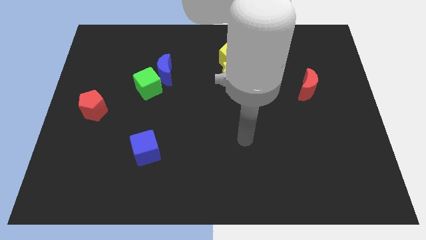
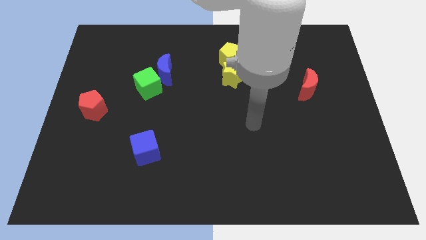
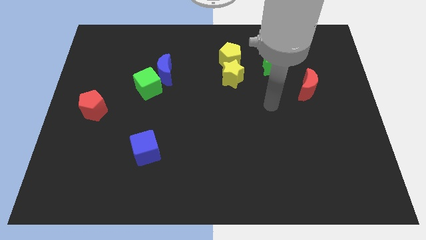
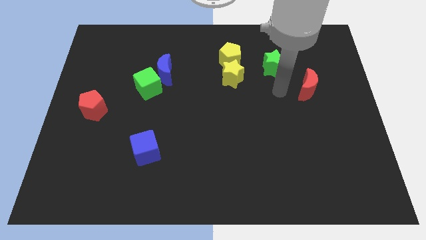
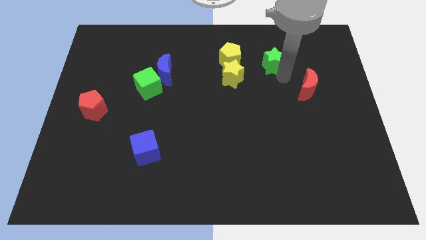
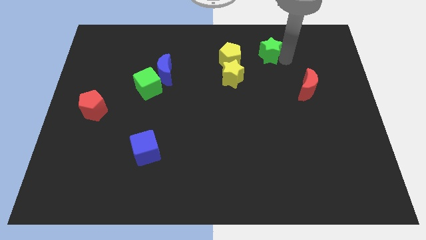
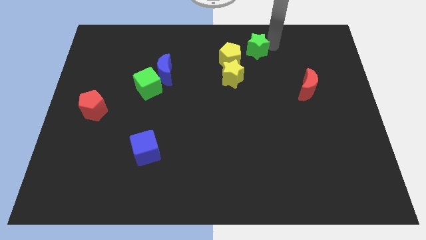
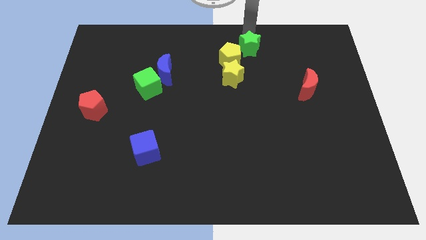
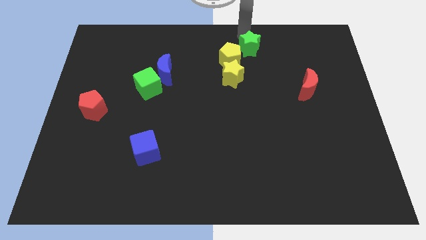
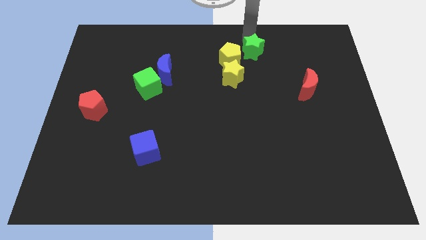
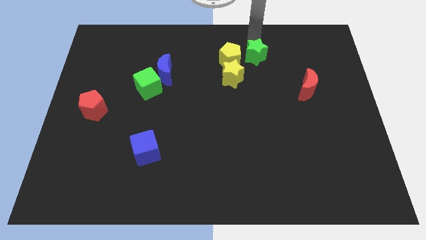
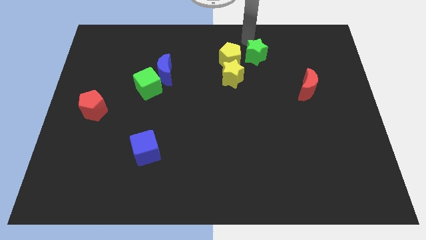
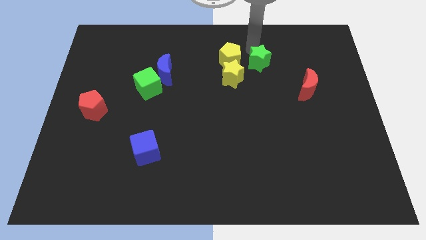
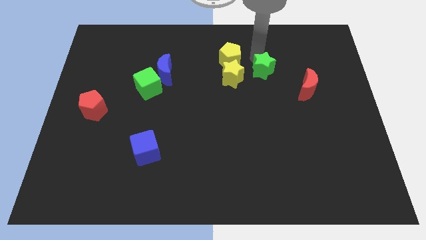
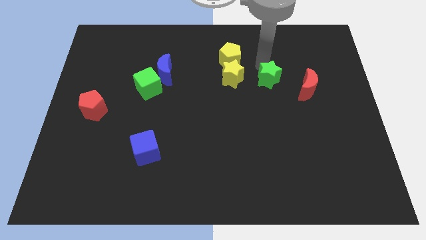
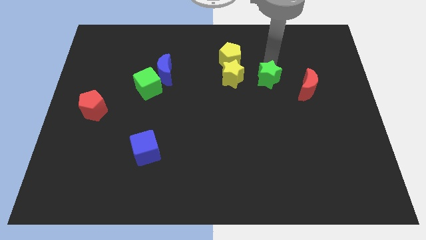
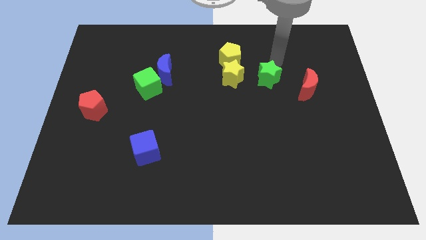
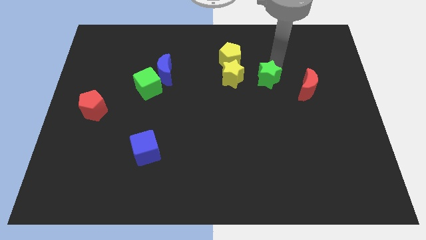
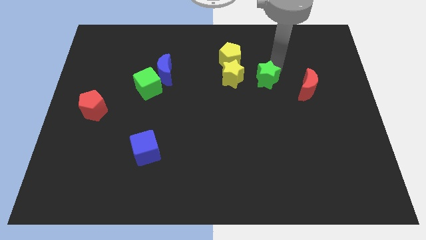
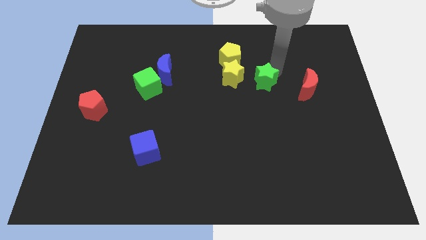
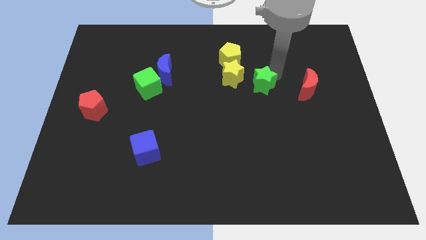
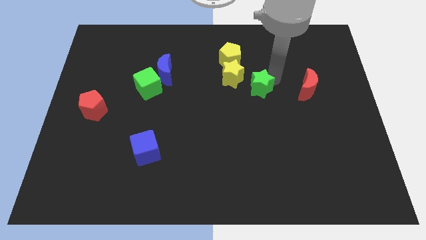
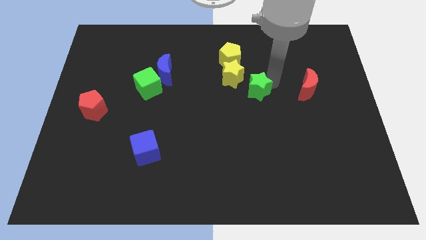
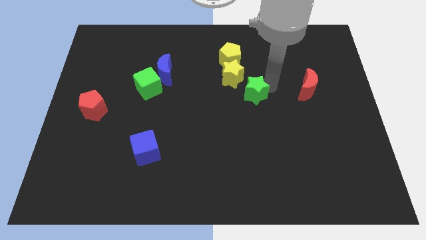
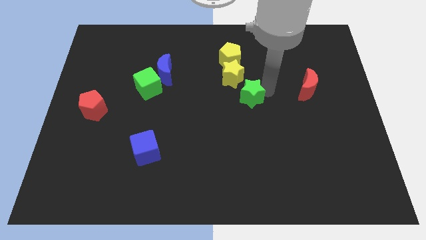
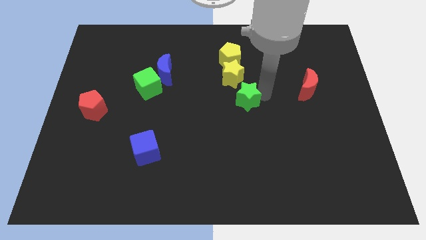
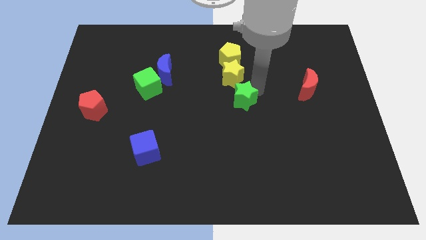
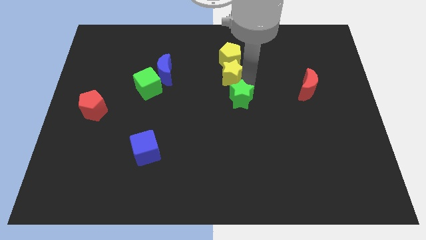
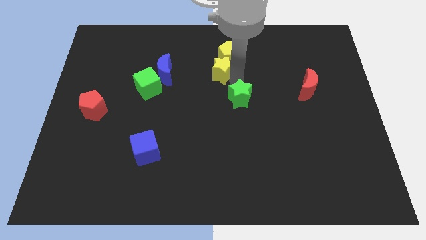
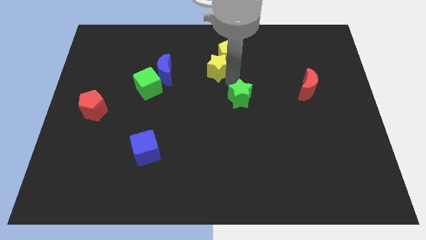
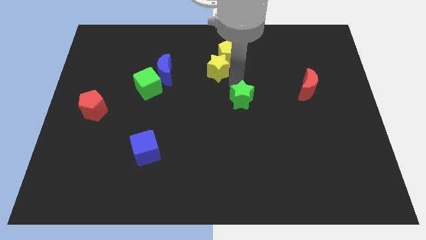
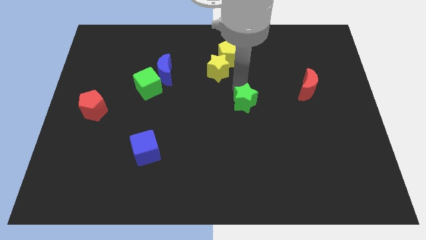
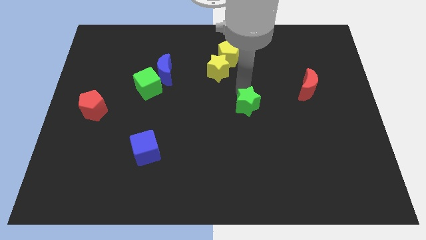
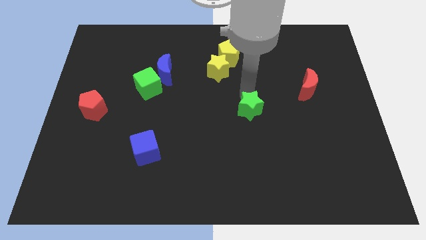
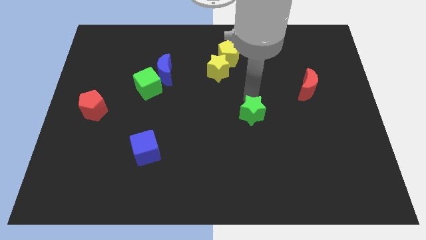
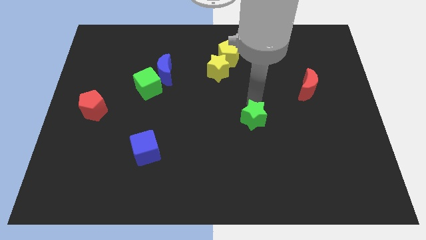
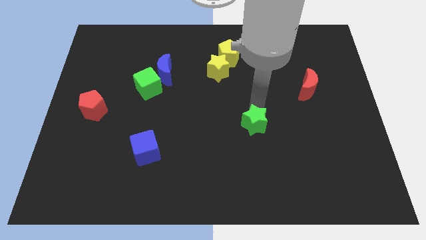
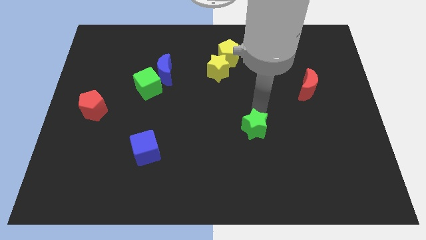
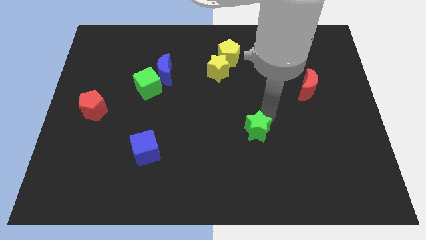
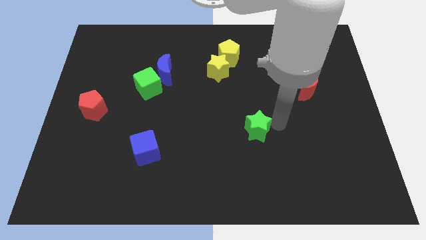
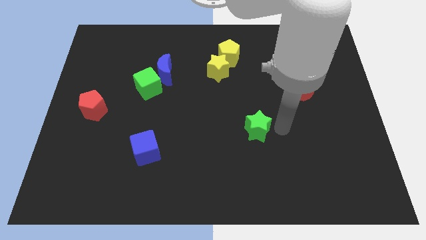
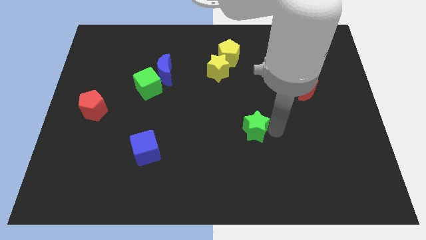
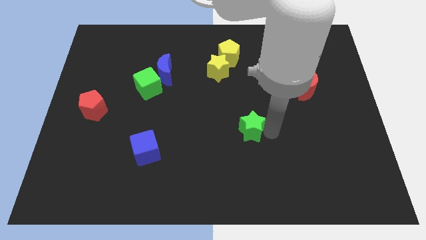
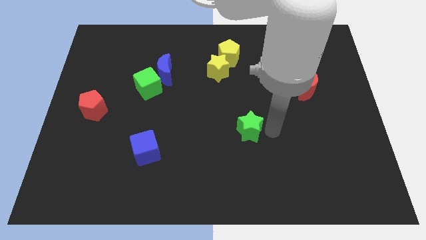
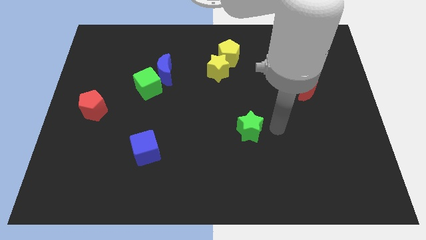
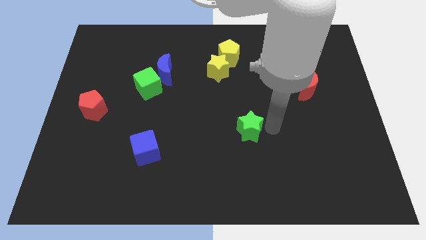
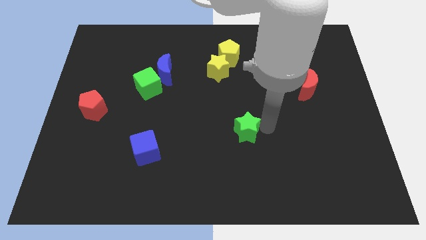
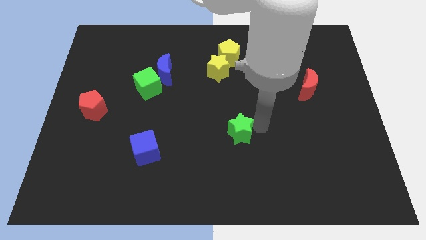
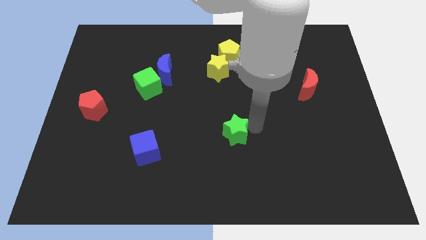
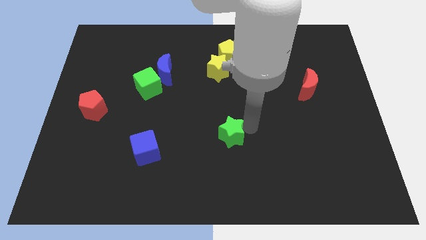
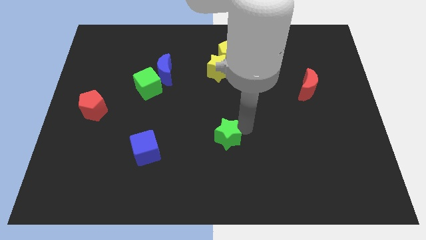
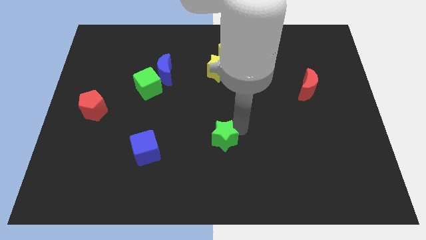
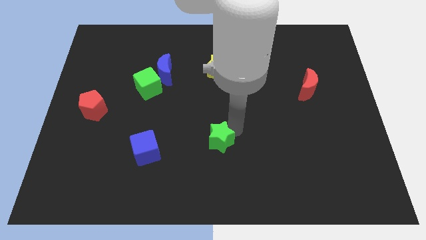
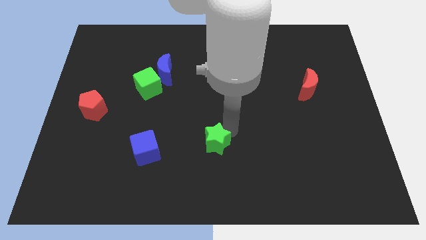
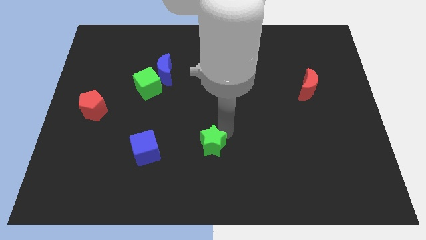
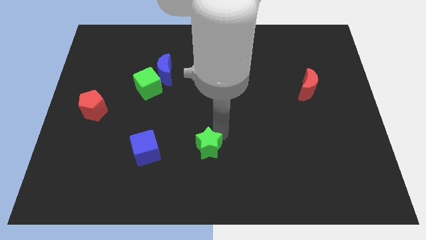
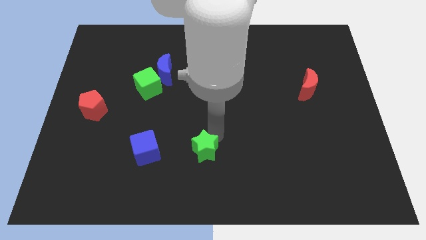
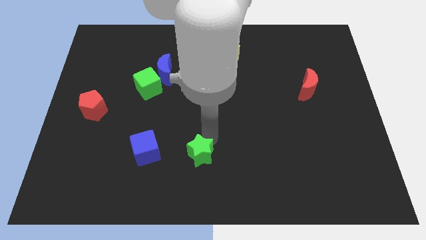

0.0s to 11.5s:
put the green star to the bottom side
